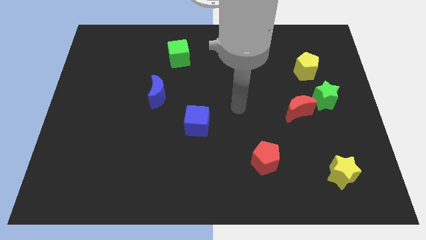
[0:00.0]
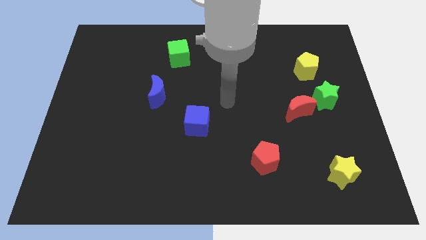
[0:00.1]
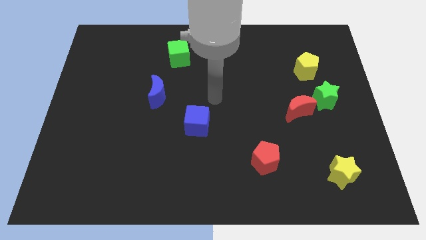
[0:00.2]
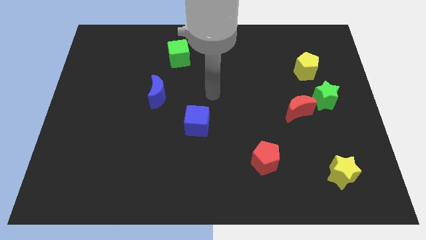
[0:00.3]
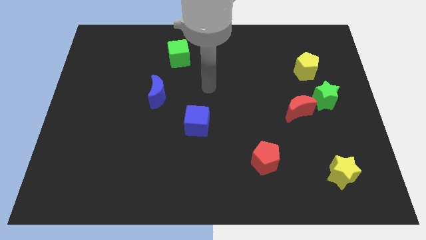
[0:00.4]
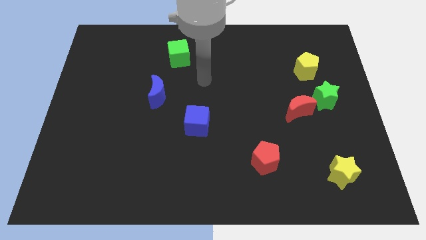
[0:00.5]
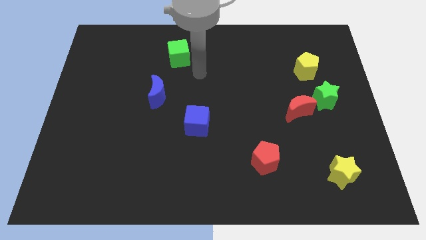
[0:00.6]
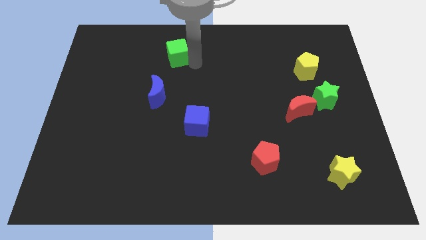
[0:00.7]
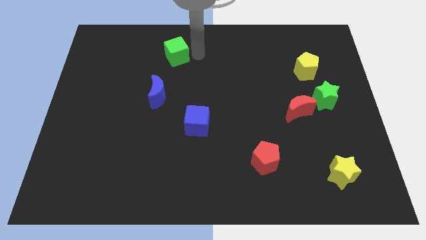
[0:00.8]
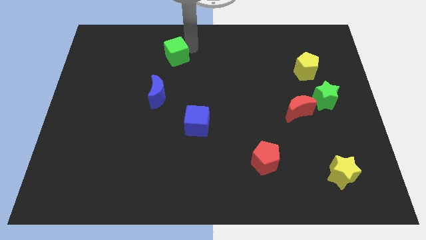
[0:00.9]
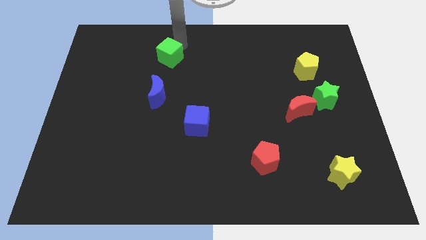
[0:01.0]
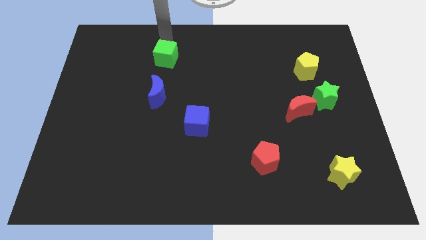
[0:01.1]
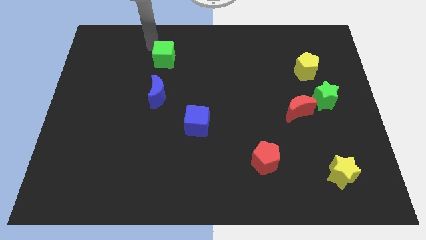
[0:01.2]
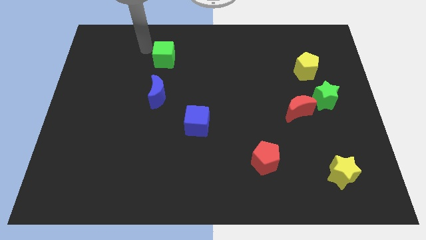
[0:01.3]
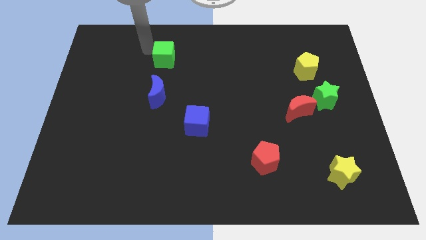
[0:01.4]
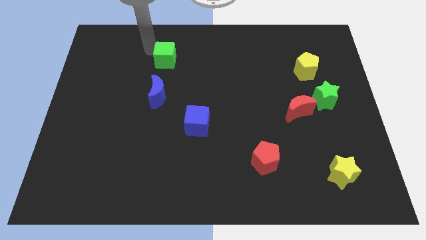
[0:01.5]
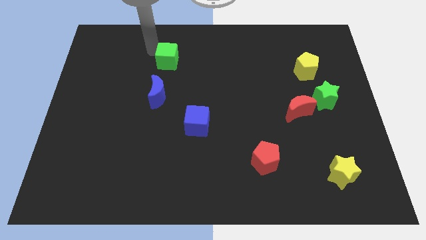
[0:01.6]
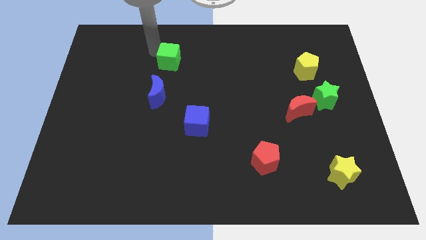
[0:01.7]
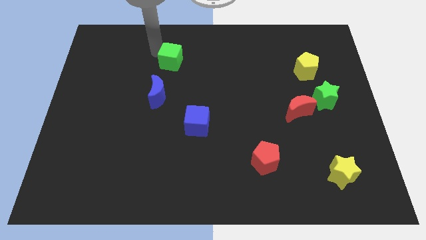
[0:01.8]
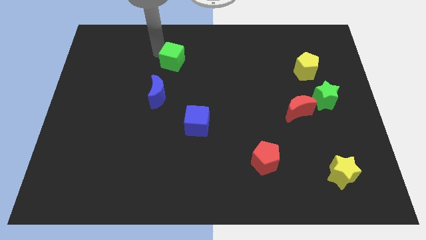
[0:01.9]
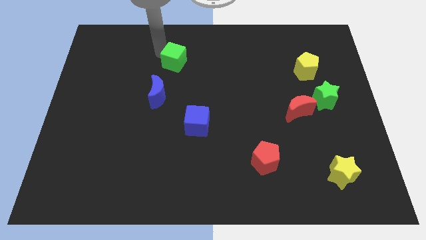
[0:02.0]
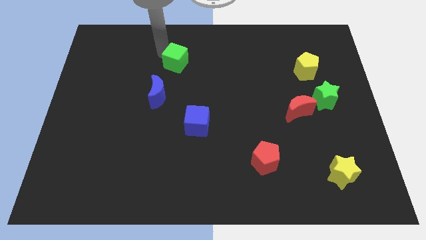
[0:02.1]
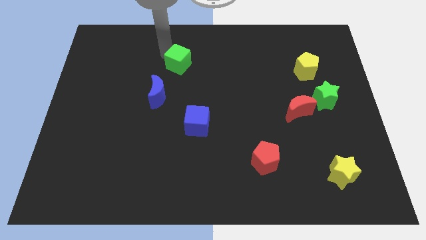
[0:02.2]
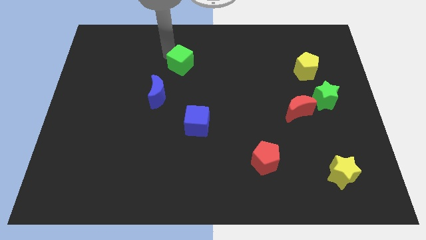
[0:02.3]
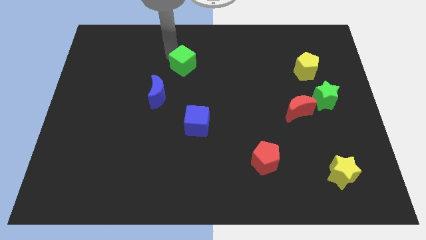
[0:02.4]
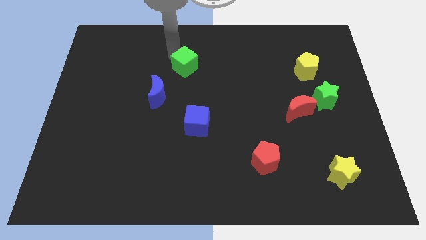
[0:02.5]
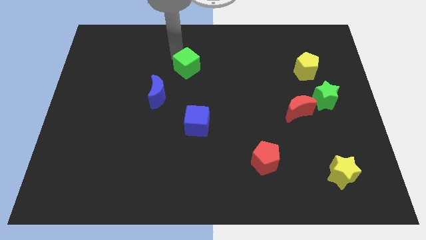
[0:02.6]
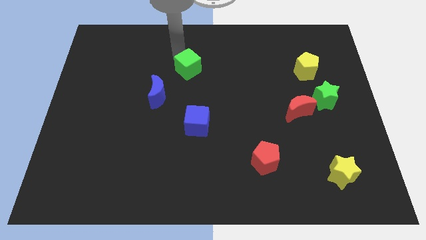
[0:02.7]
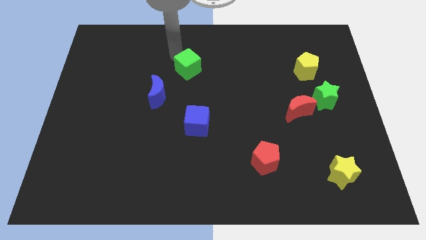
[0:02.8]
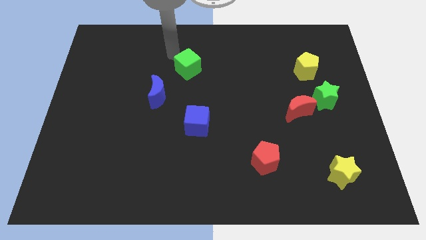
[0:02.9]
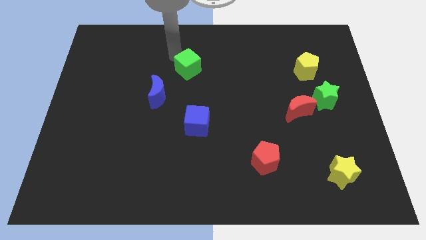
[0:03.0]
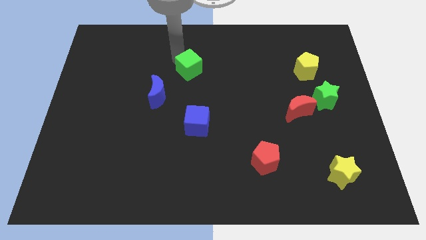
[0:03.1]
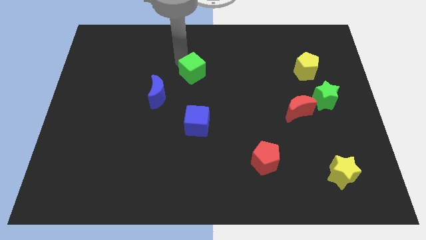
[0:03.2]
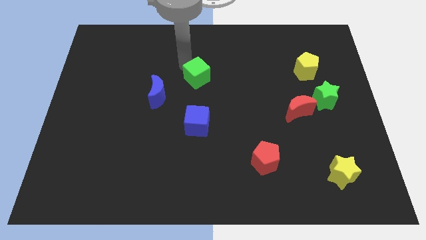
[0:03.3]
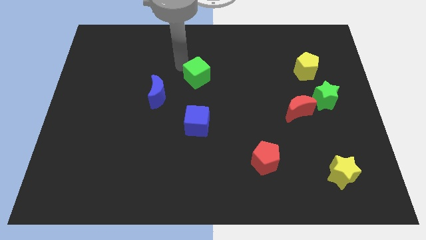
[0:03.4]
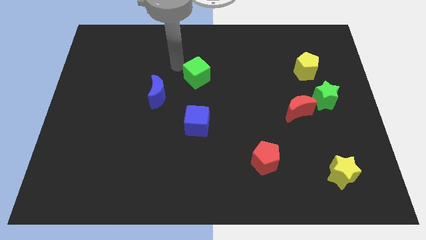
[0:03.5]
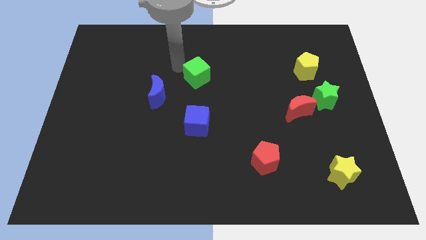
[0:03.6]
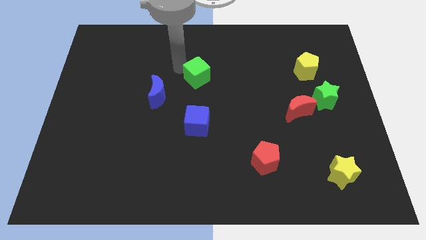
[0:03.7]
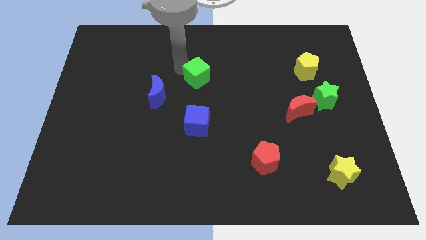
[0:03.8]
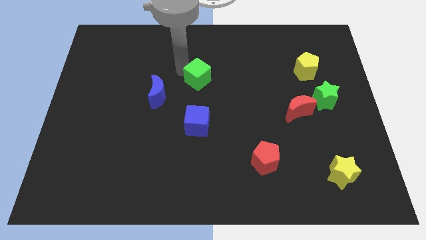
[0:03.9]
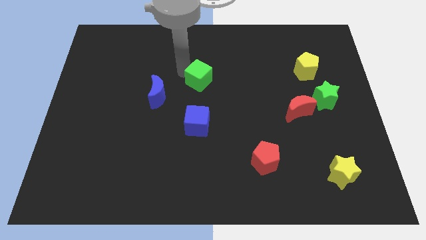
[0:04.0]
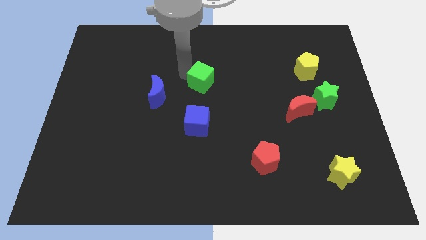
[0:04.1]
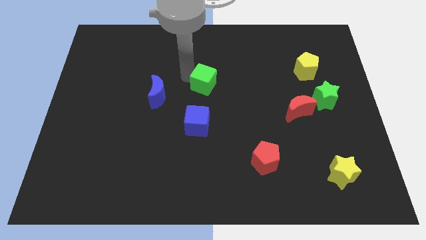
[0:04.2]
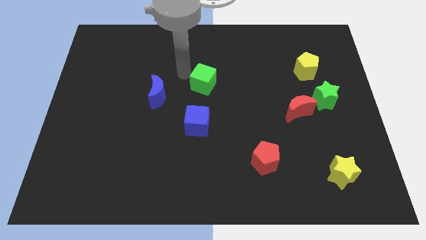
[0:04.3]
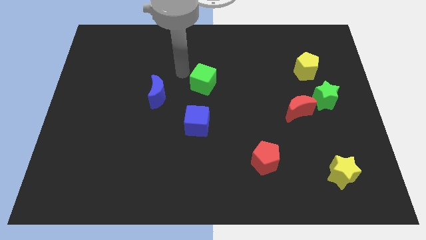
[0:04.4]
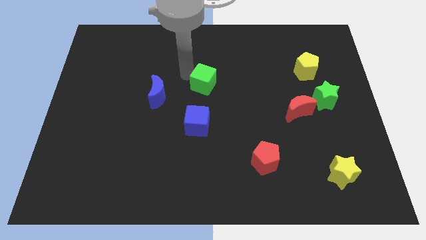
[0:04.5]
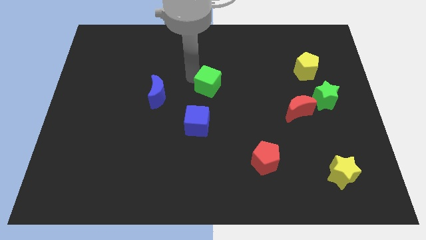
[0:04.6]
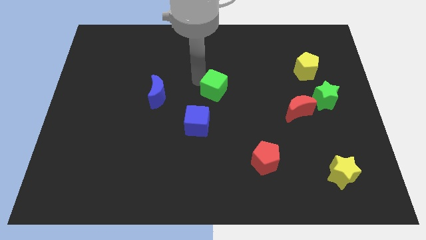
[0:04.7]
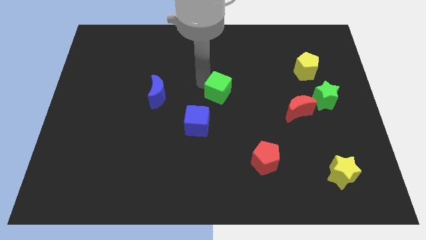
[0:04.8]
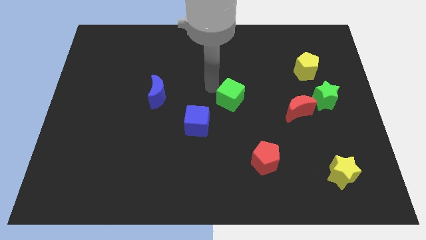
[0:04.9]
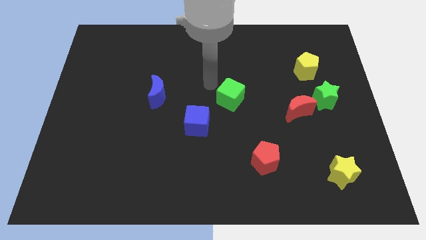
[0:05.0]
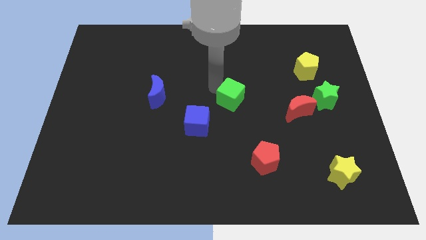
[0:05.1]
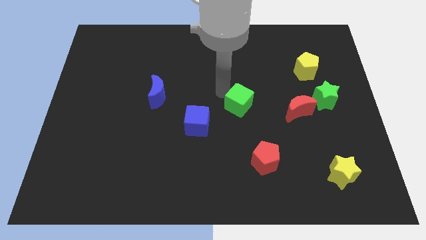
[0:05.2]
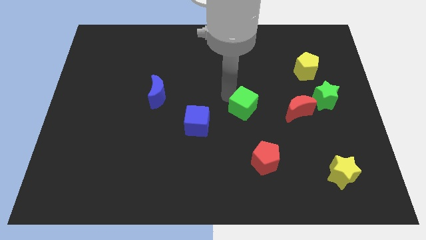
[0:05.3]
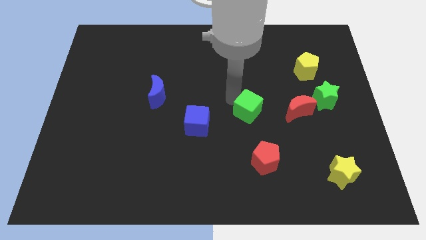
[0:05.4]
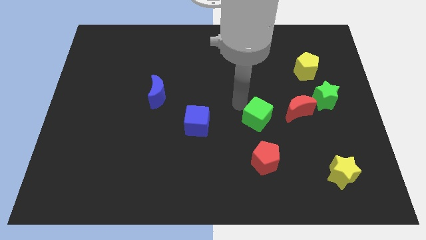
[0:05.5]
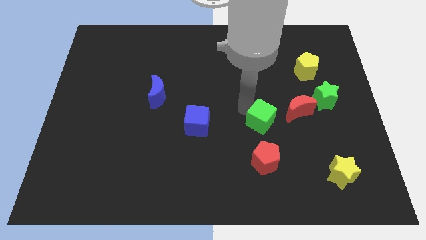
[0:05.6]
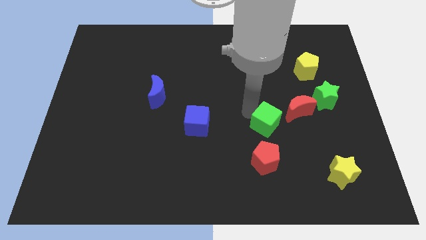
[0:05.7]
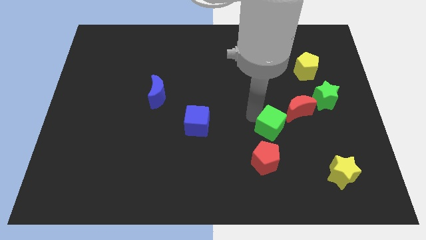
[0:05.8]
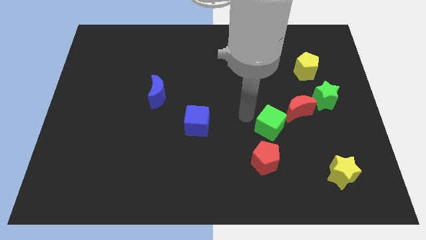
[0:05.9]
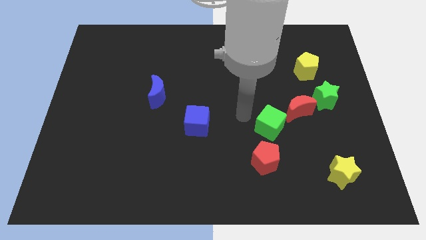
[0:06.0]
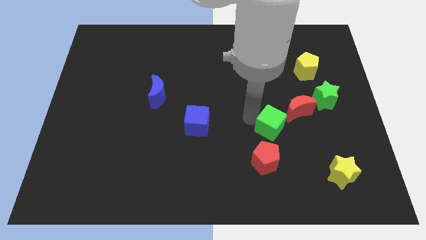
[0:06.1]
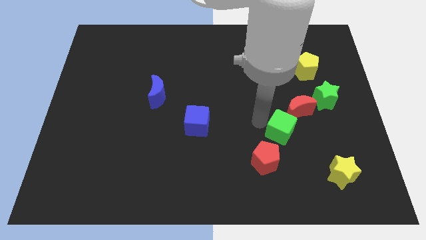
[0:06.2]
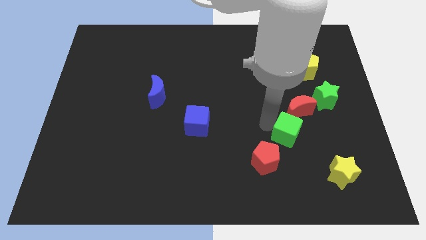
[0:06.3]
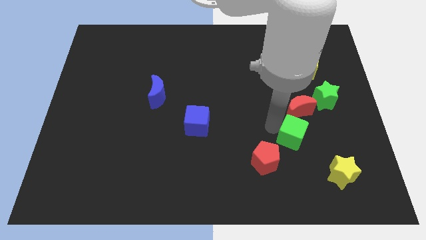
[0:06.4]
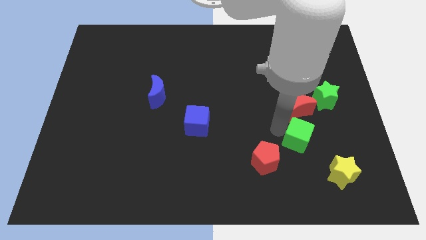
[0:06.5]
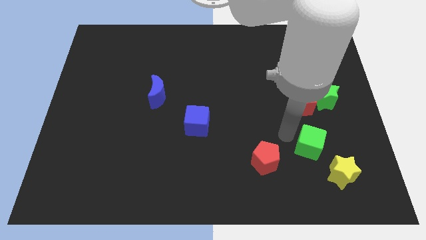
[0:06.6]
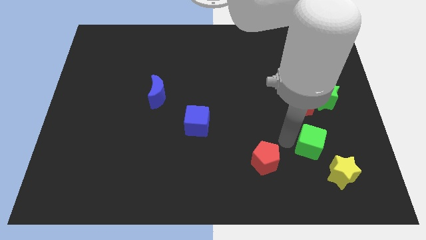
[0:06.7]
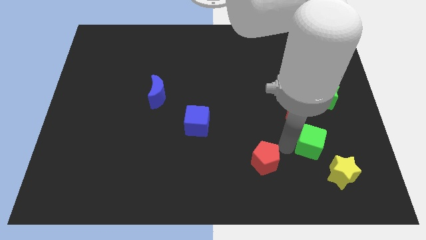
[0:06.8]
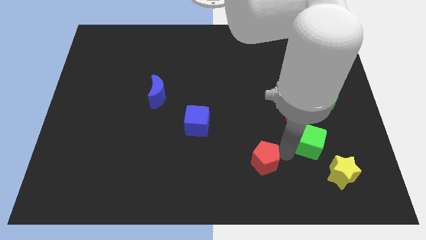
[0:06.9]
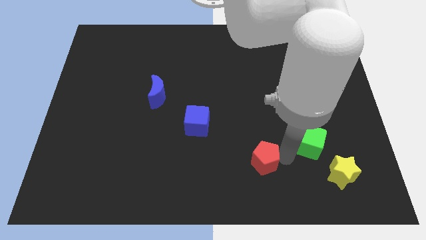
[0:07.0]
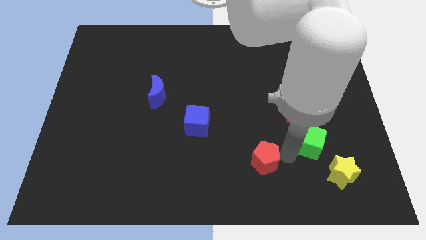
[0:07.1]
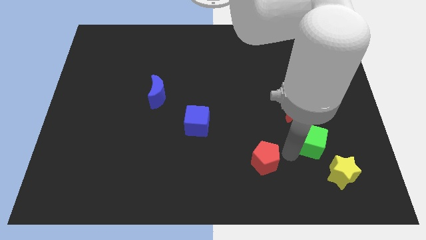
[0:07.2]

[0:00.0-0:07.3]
move the green cube to the top side of the yellow star

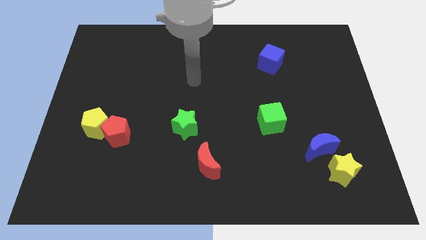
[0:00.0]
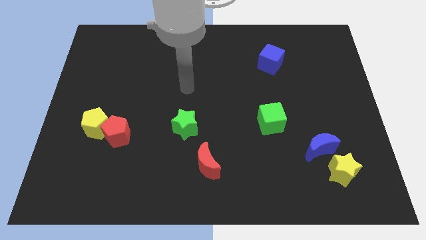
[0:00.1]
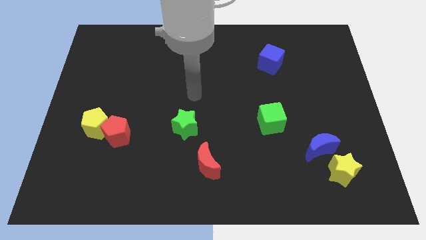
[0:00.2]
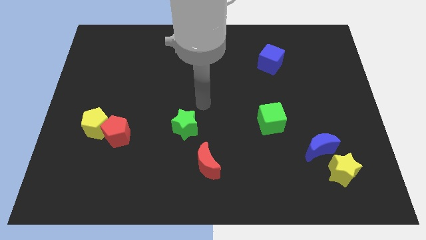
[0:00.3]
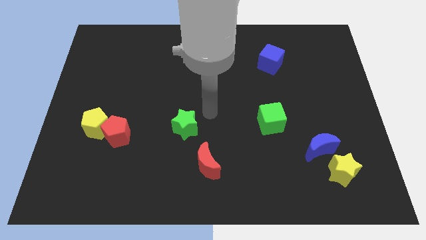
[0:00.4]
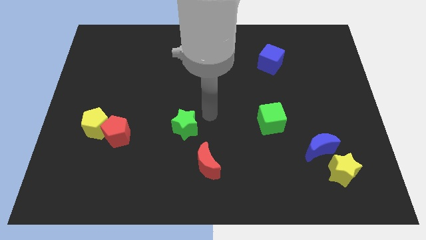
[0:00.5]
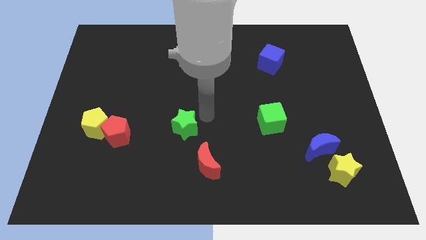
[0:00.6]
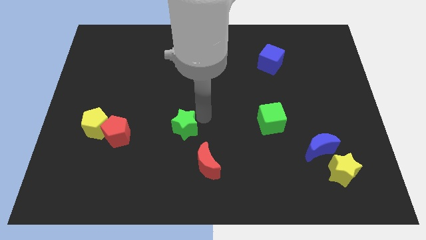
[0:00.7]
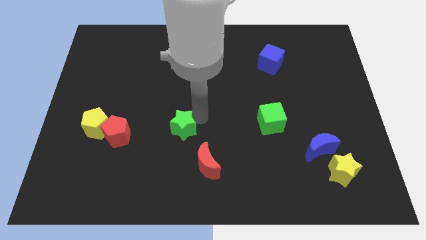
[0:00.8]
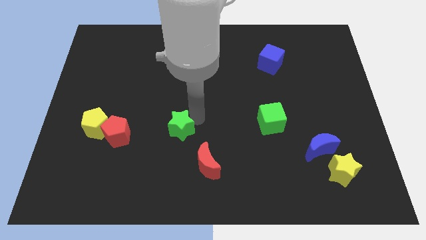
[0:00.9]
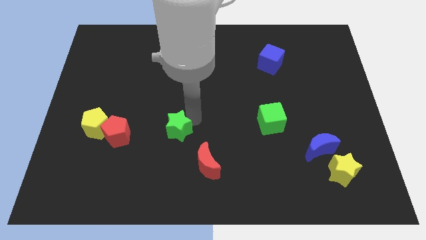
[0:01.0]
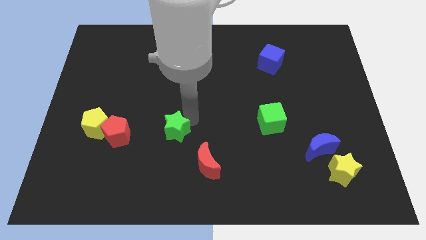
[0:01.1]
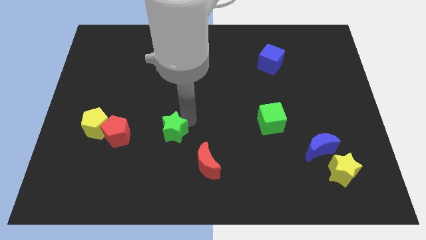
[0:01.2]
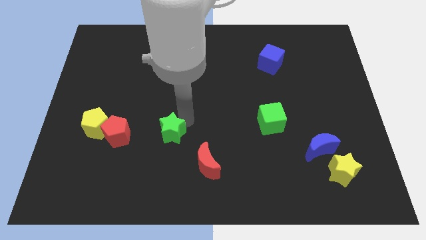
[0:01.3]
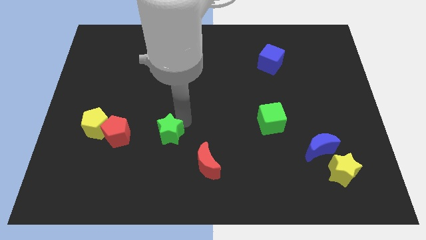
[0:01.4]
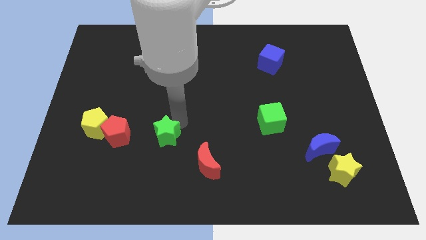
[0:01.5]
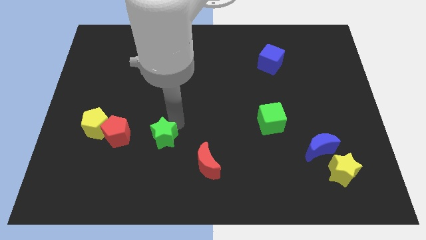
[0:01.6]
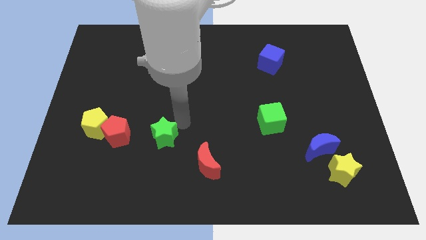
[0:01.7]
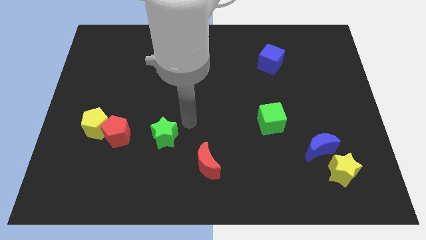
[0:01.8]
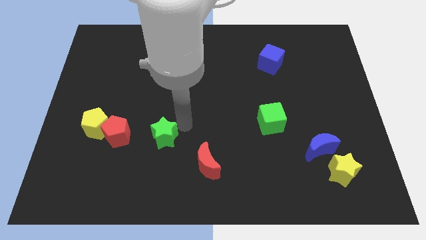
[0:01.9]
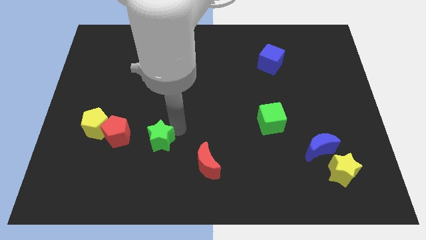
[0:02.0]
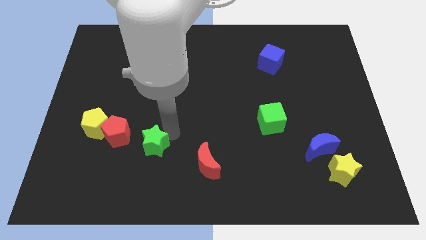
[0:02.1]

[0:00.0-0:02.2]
slide the green star diagonally down and to the right of the red pentagon
